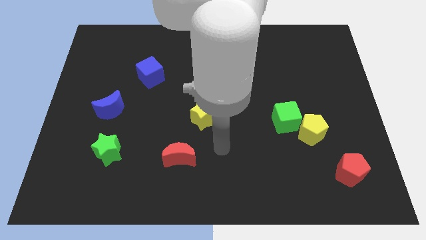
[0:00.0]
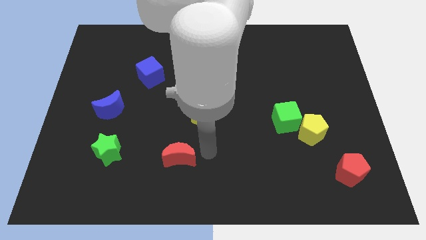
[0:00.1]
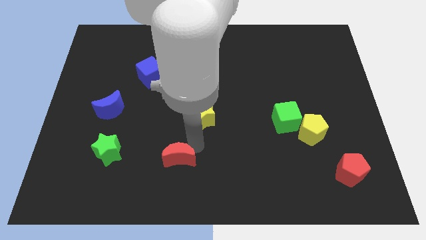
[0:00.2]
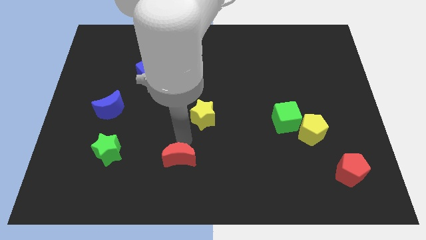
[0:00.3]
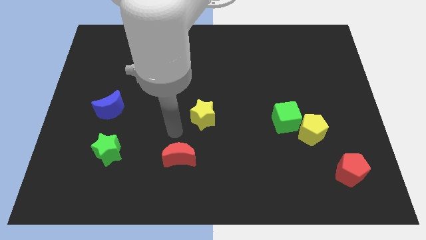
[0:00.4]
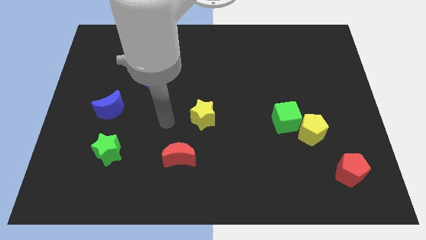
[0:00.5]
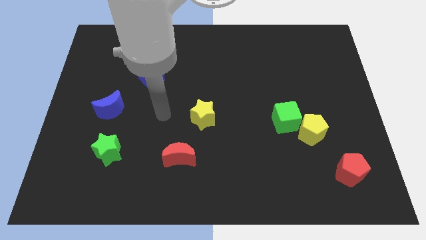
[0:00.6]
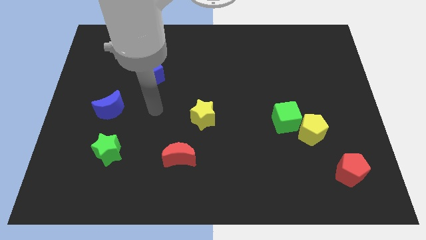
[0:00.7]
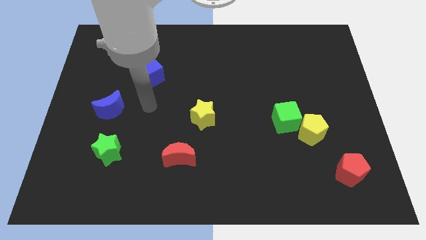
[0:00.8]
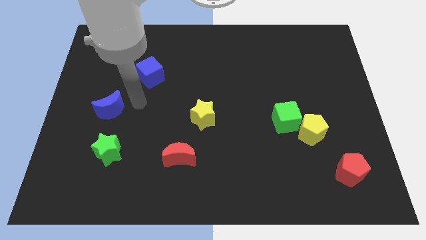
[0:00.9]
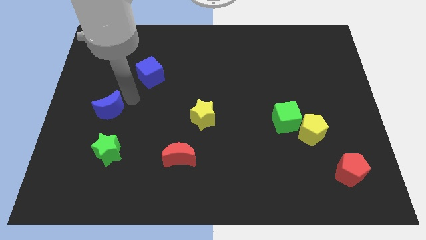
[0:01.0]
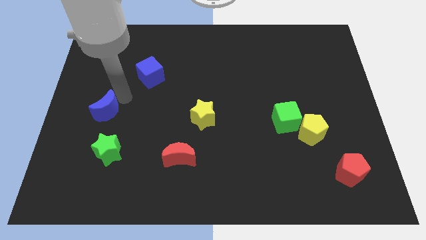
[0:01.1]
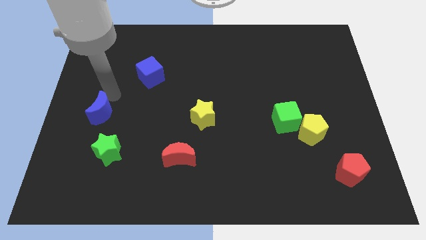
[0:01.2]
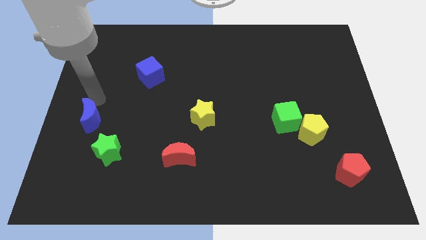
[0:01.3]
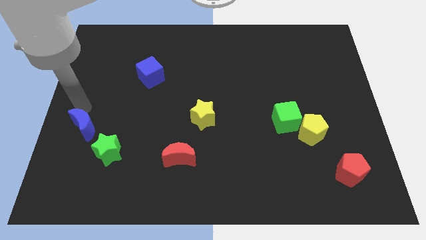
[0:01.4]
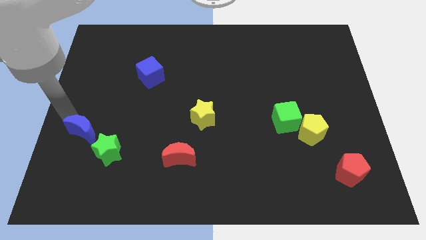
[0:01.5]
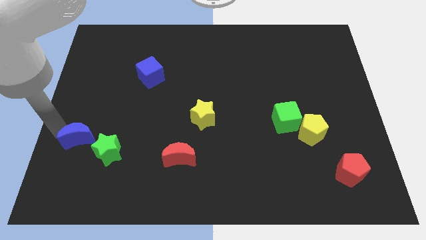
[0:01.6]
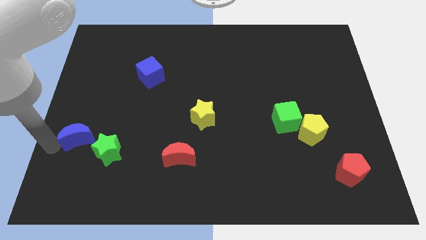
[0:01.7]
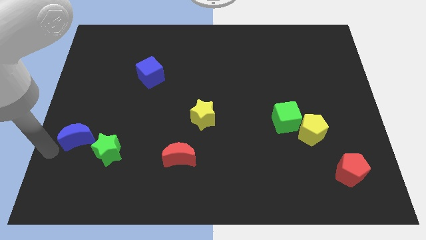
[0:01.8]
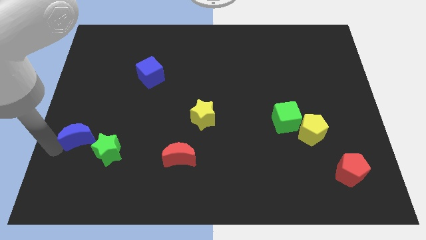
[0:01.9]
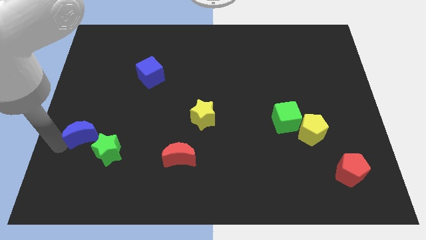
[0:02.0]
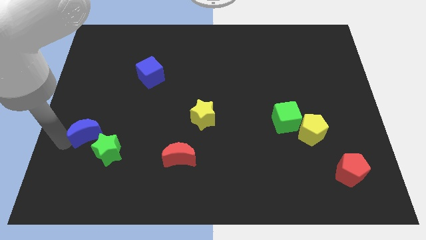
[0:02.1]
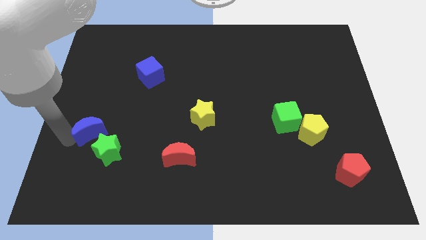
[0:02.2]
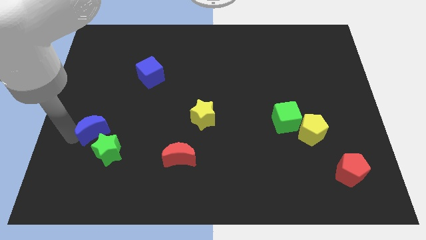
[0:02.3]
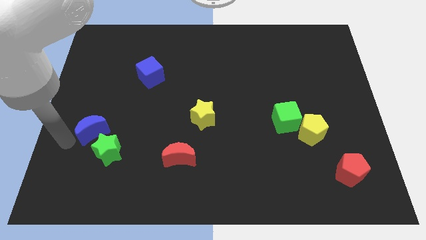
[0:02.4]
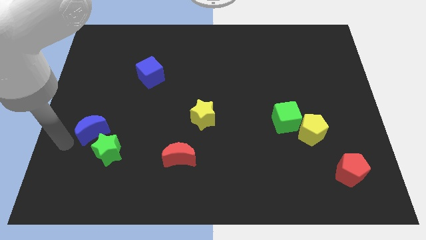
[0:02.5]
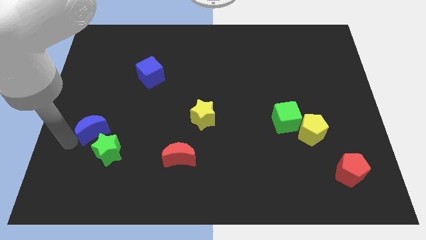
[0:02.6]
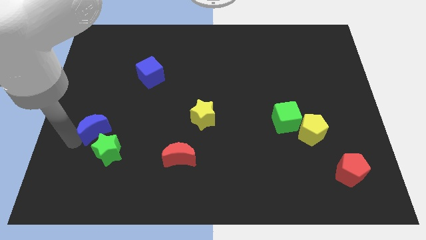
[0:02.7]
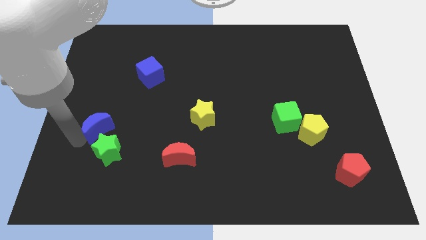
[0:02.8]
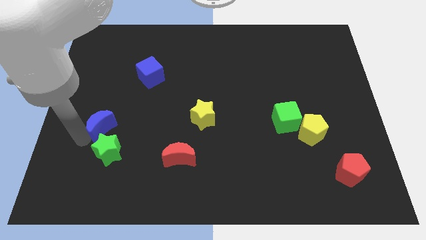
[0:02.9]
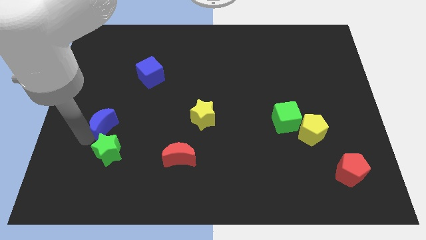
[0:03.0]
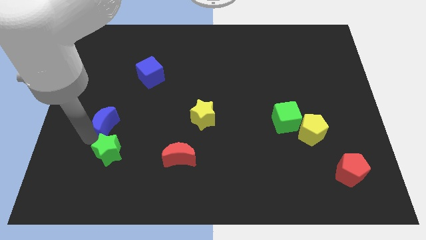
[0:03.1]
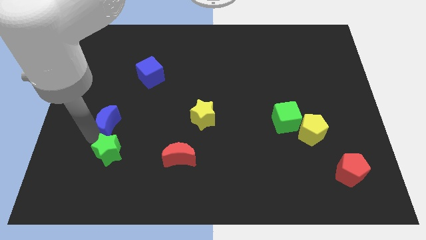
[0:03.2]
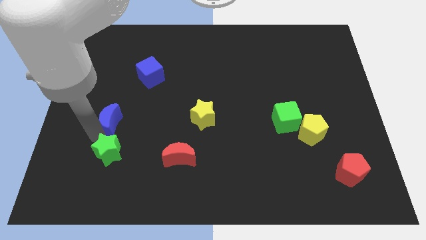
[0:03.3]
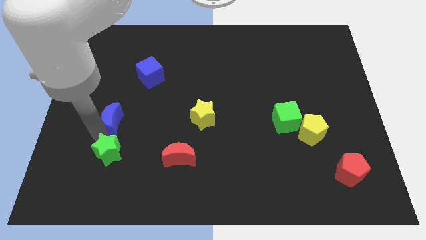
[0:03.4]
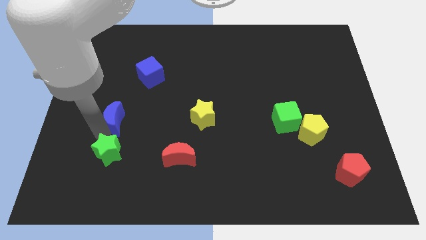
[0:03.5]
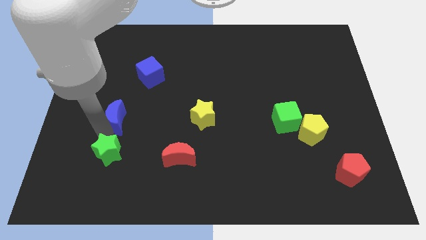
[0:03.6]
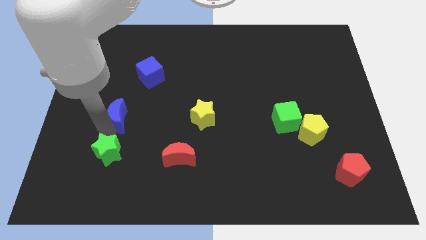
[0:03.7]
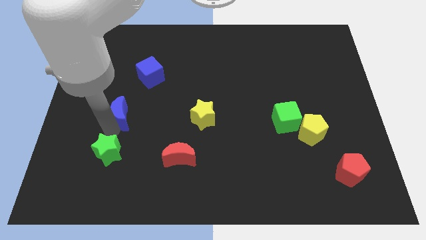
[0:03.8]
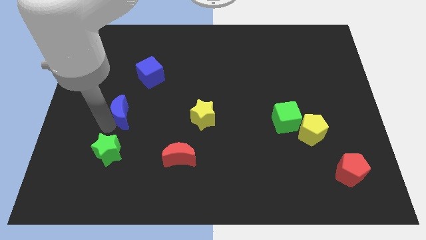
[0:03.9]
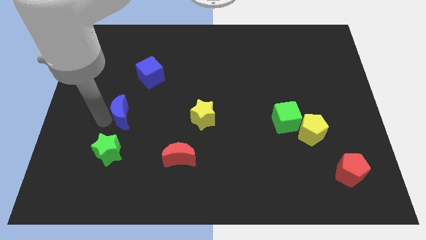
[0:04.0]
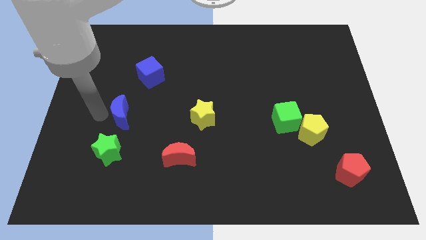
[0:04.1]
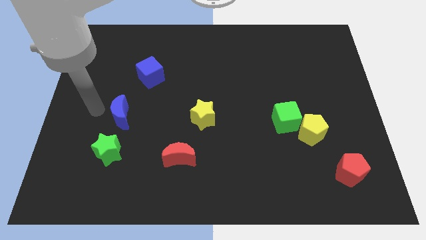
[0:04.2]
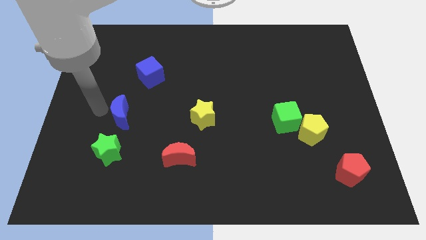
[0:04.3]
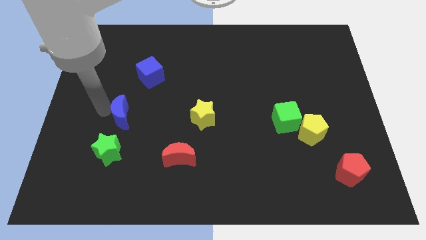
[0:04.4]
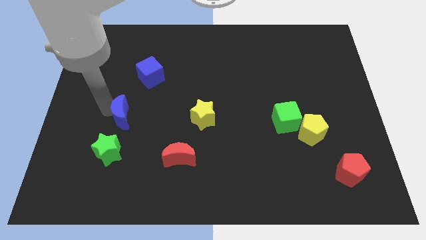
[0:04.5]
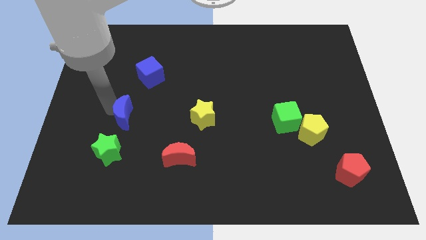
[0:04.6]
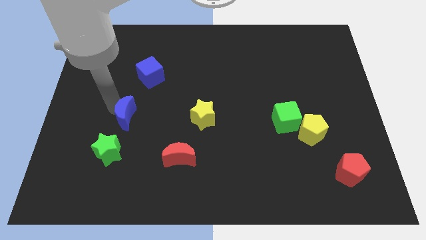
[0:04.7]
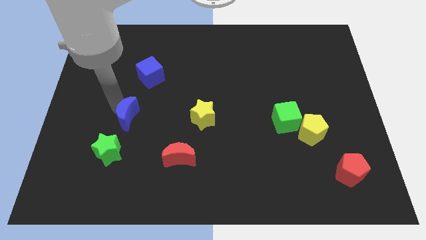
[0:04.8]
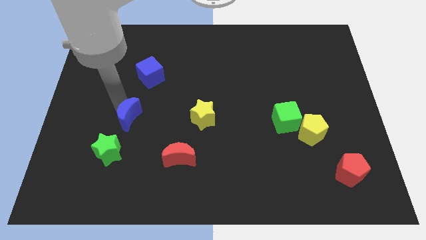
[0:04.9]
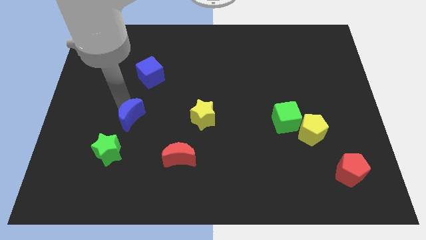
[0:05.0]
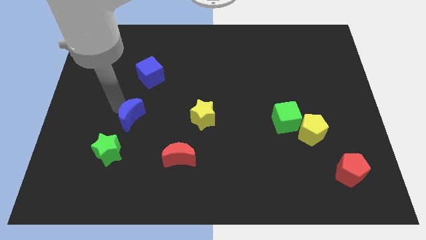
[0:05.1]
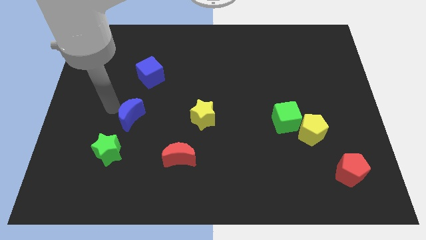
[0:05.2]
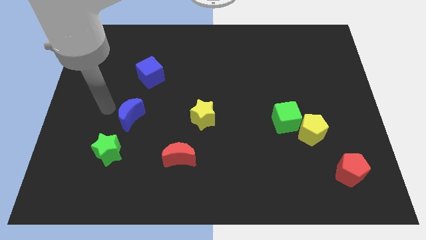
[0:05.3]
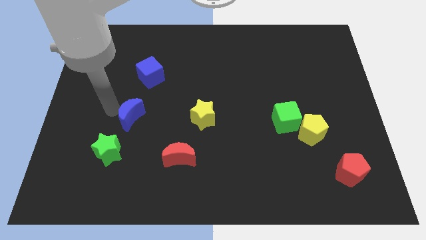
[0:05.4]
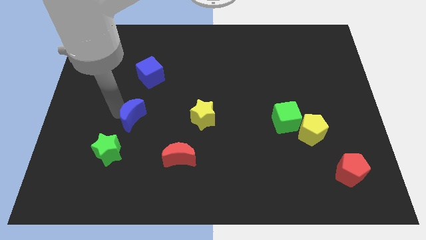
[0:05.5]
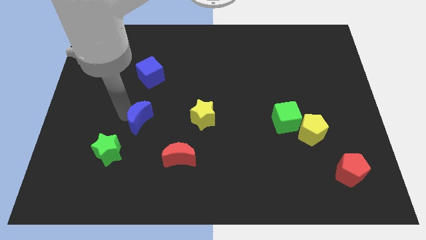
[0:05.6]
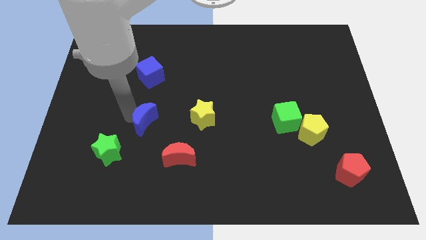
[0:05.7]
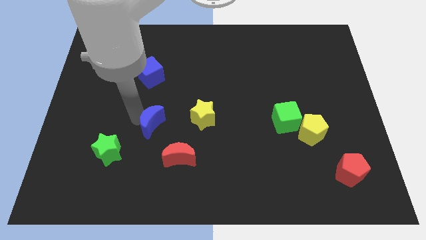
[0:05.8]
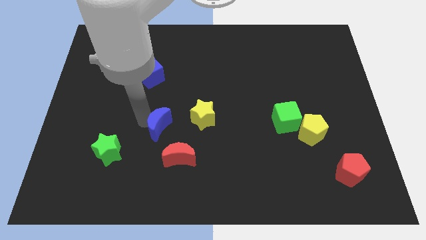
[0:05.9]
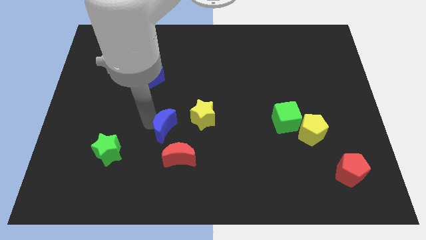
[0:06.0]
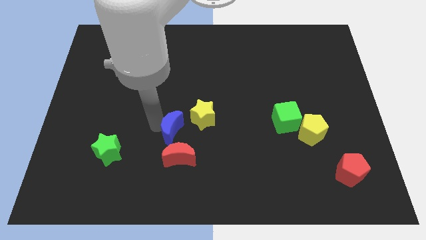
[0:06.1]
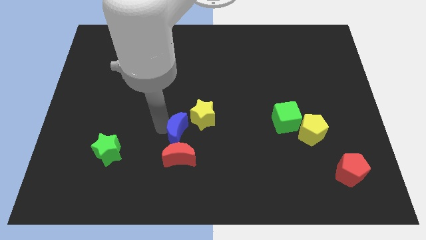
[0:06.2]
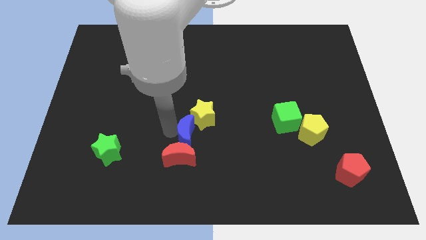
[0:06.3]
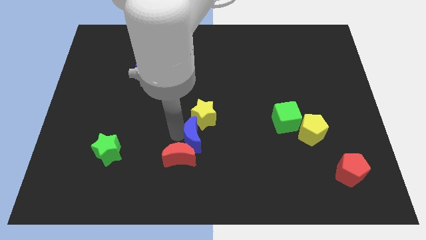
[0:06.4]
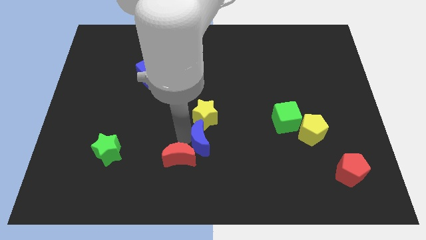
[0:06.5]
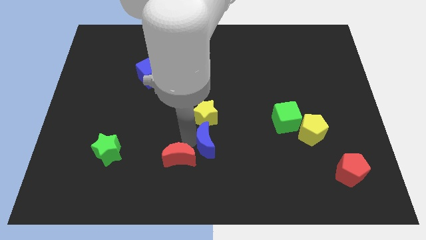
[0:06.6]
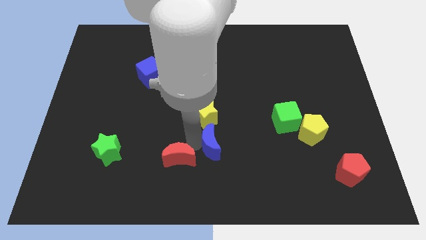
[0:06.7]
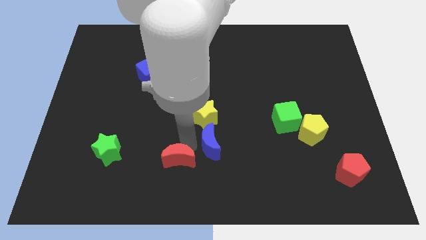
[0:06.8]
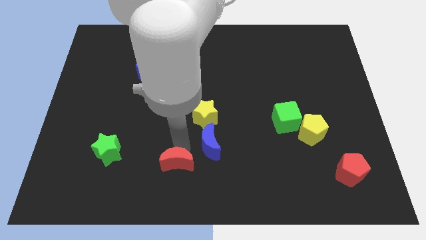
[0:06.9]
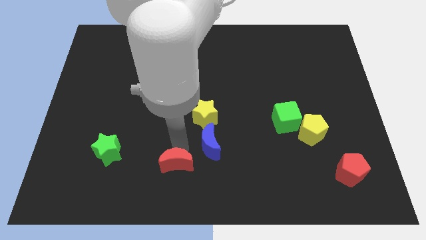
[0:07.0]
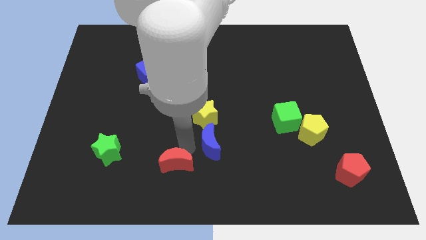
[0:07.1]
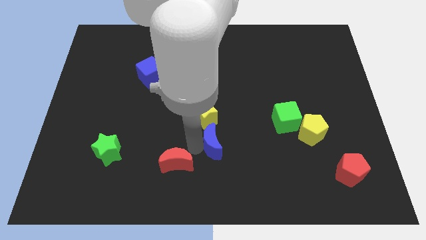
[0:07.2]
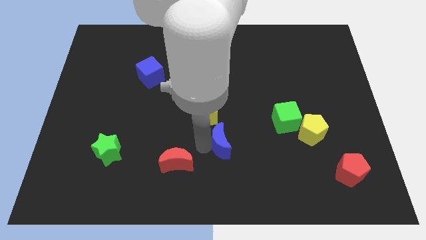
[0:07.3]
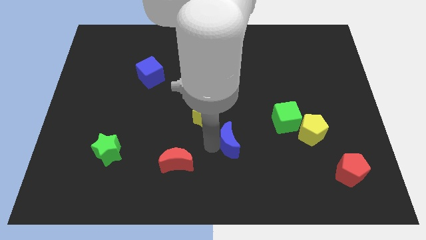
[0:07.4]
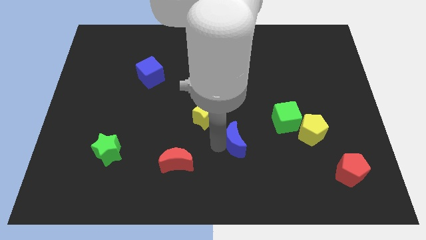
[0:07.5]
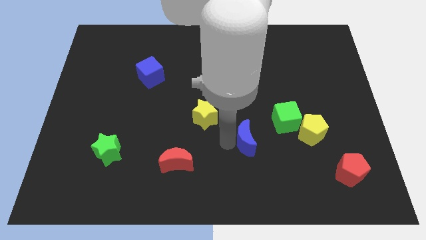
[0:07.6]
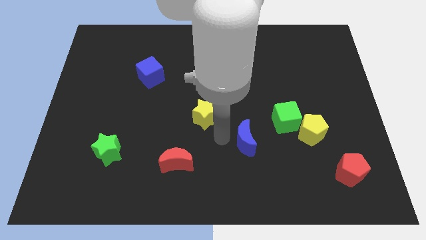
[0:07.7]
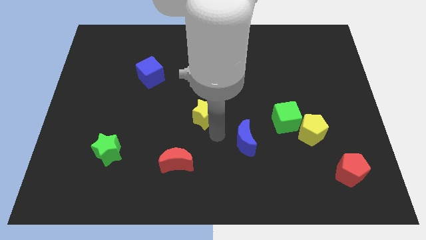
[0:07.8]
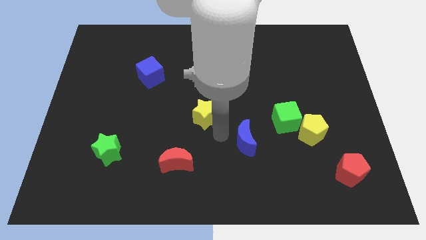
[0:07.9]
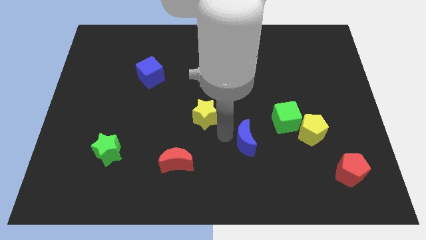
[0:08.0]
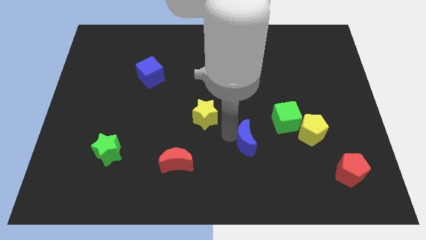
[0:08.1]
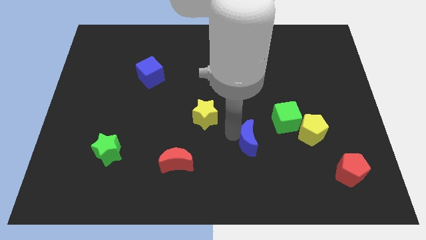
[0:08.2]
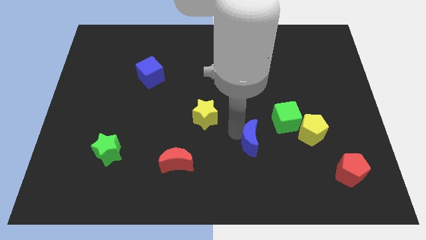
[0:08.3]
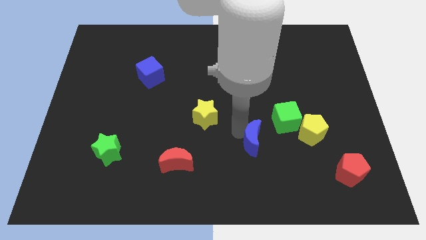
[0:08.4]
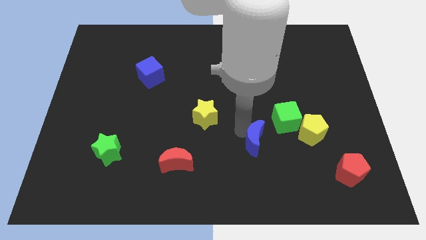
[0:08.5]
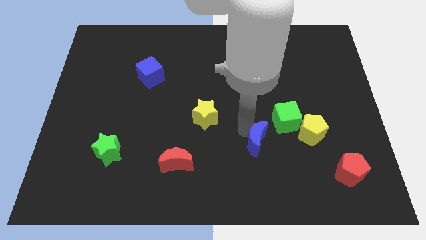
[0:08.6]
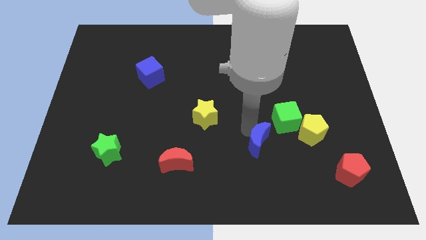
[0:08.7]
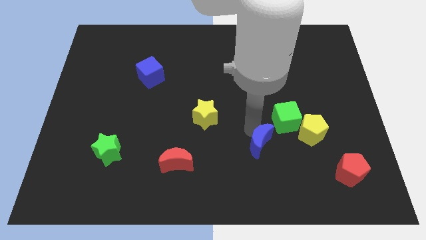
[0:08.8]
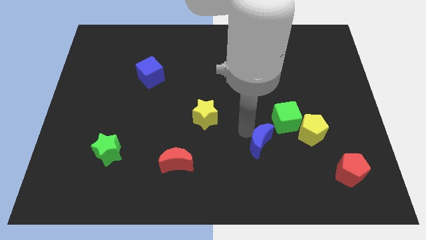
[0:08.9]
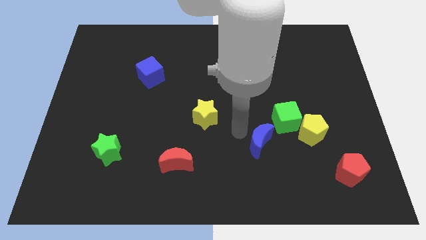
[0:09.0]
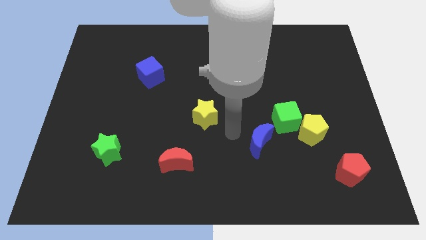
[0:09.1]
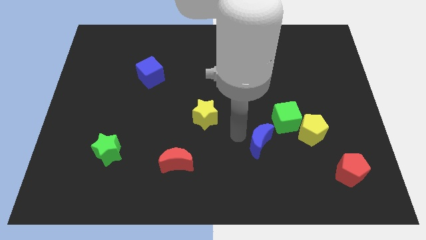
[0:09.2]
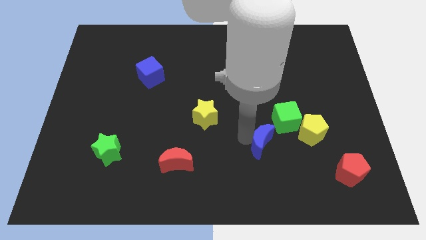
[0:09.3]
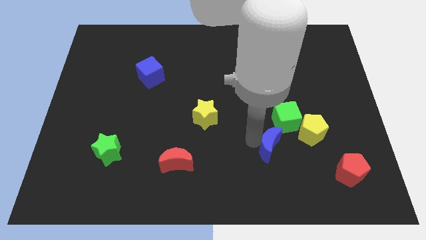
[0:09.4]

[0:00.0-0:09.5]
put the blue moon to the bottom left side of the yellow pentagon
